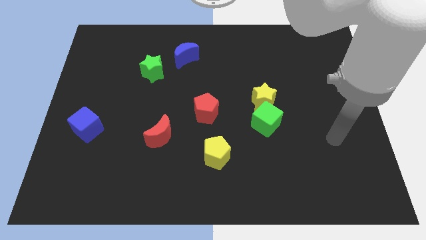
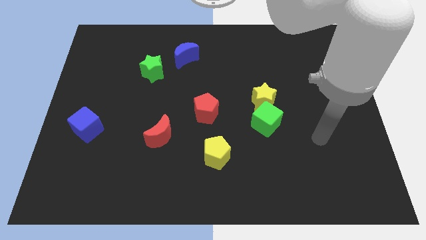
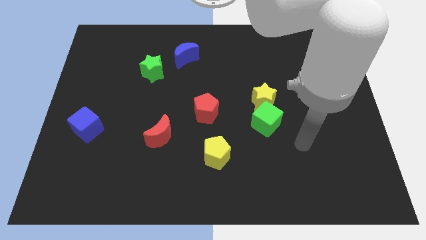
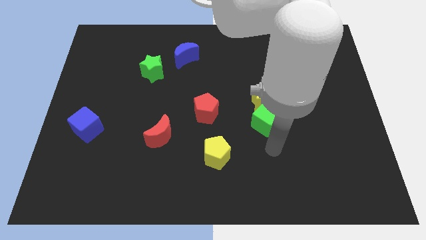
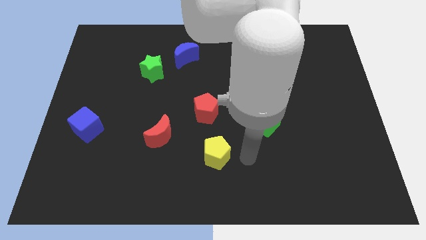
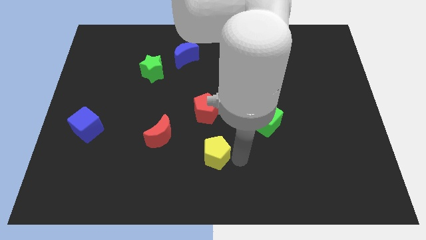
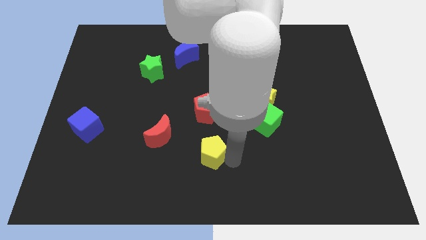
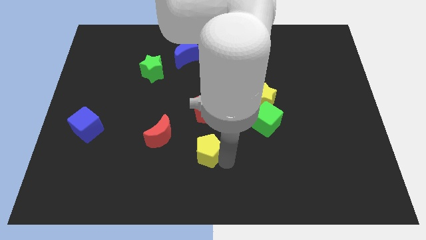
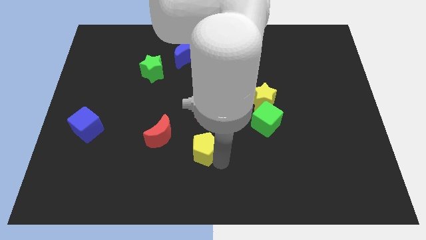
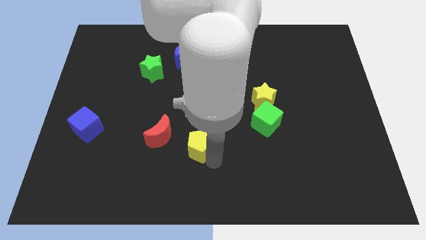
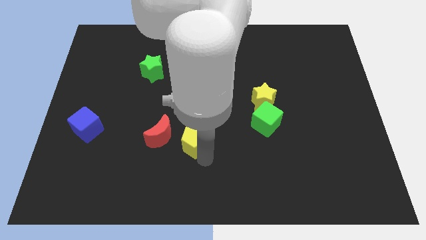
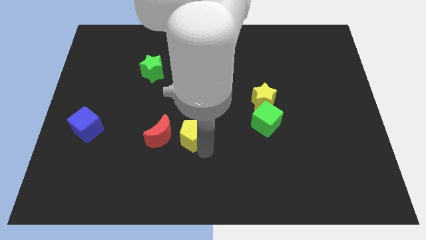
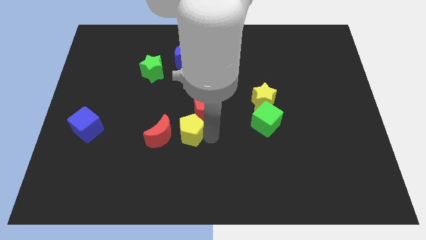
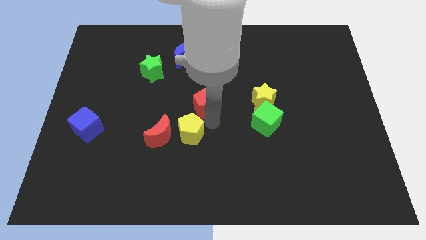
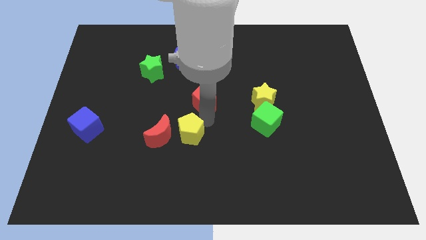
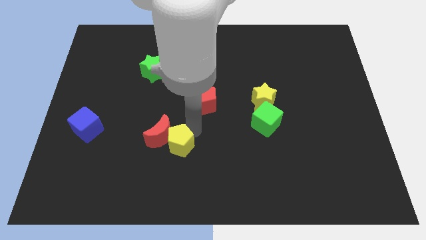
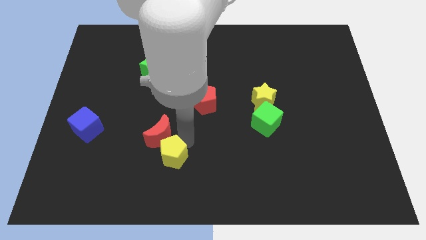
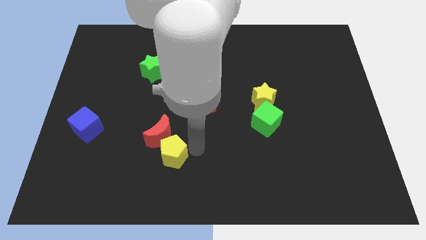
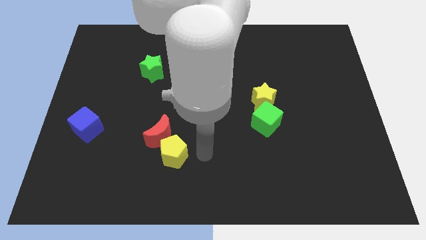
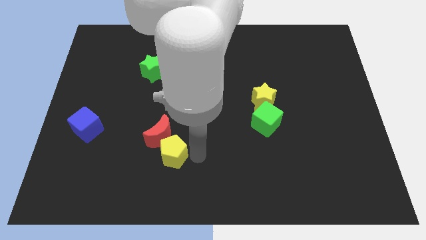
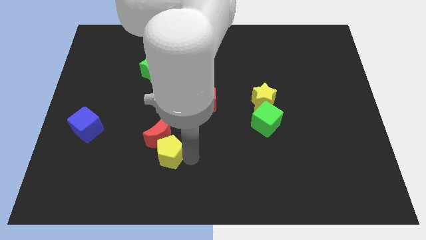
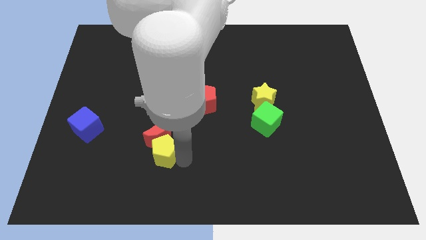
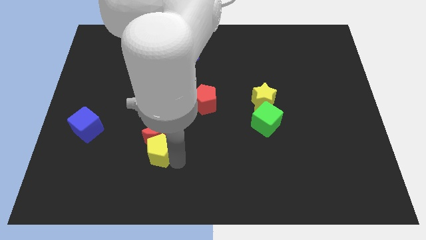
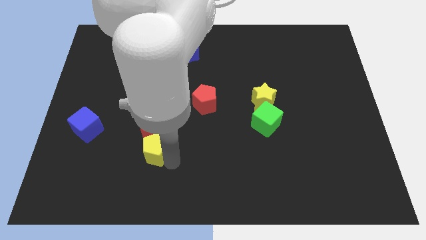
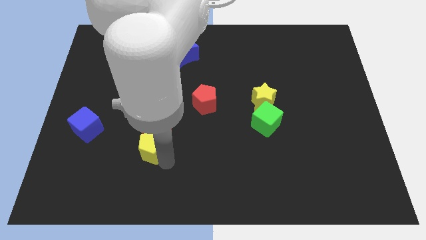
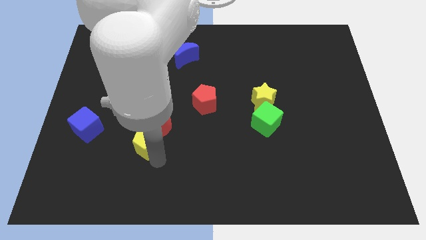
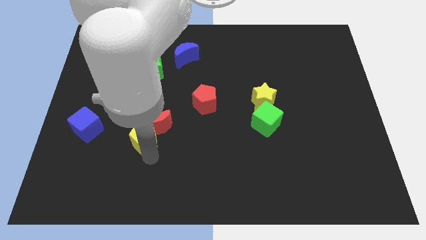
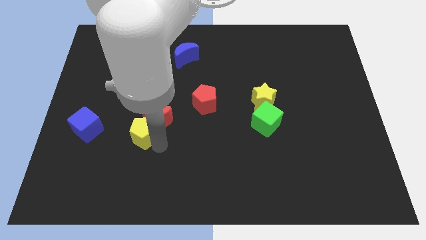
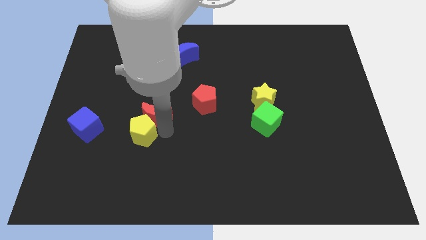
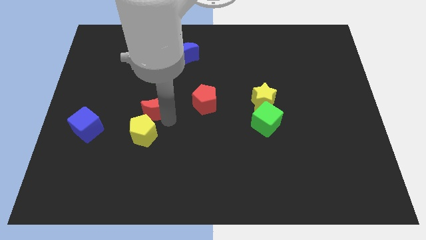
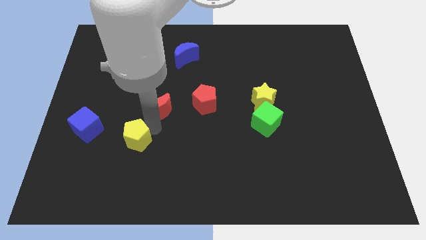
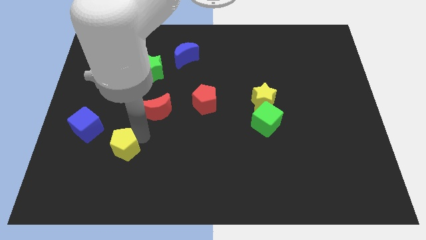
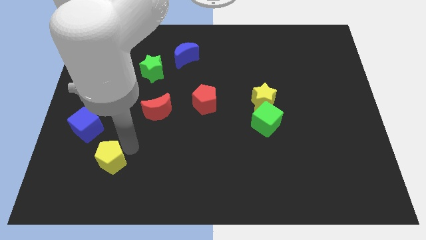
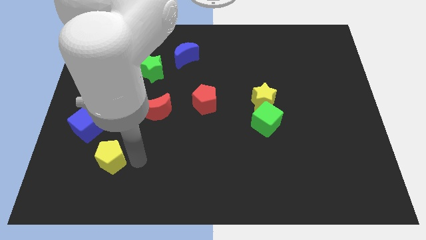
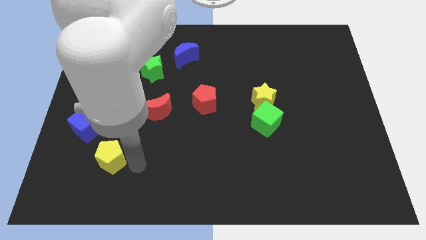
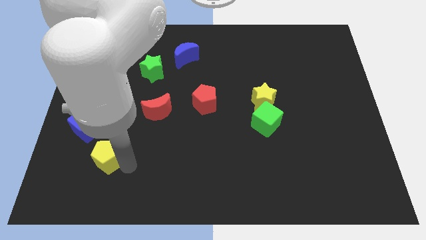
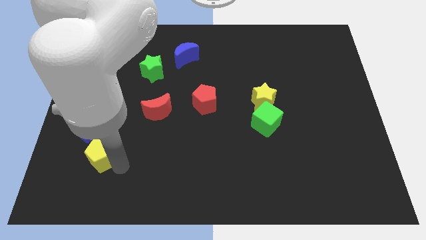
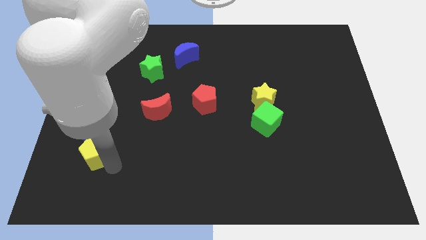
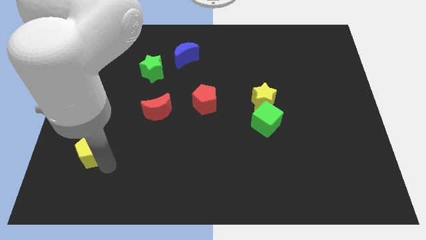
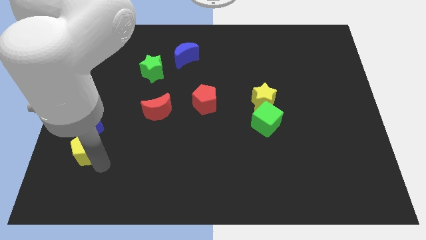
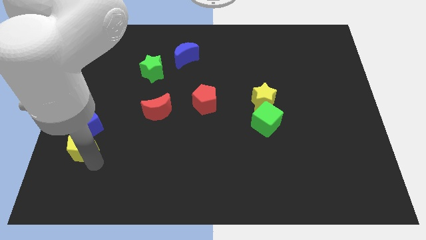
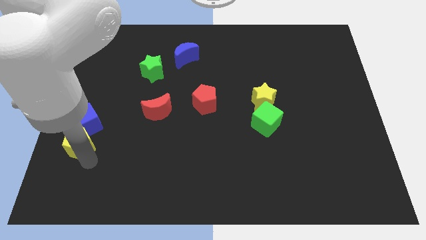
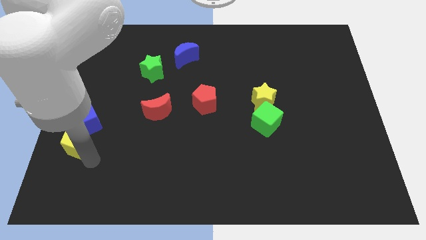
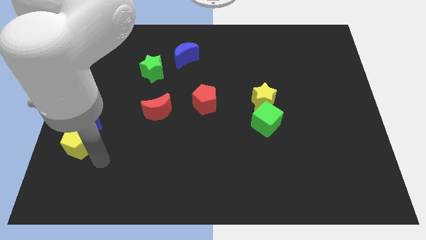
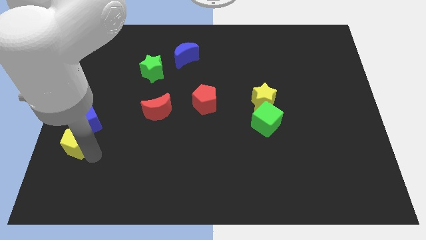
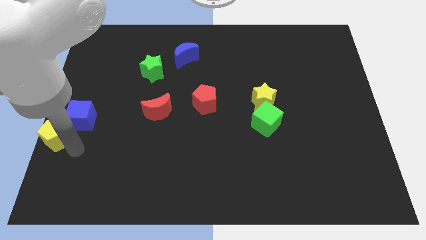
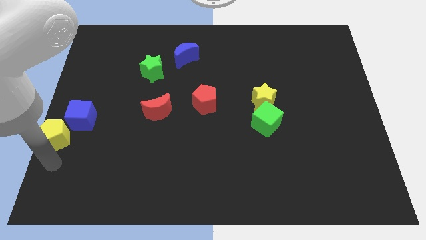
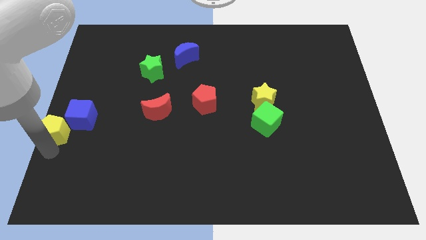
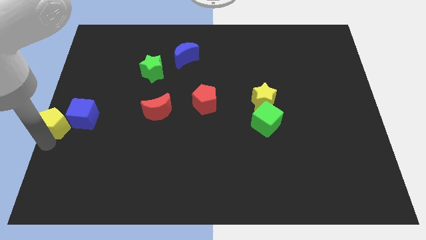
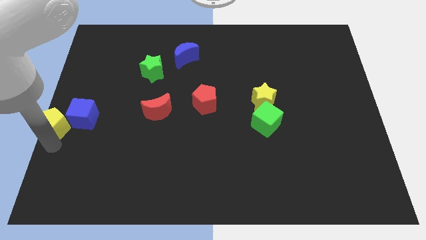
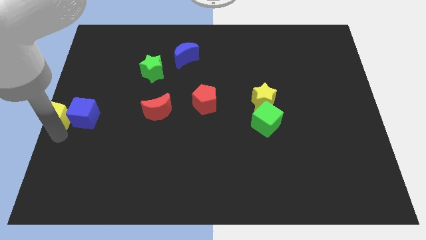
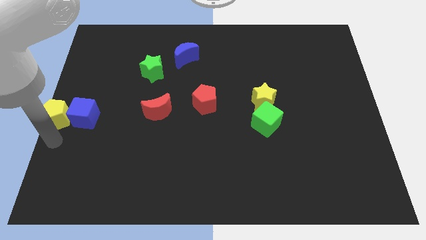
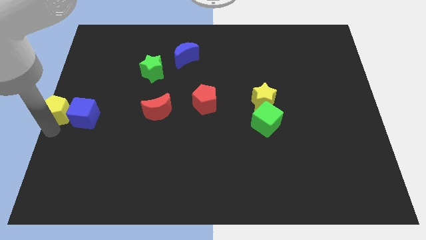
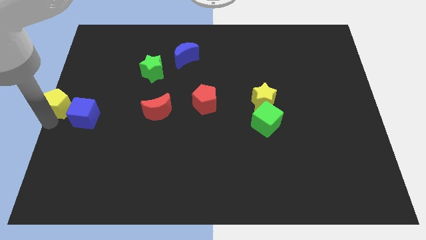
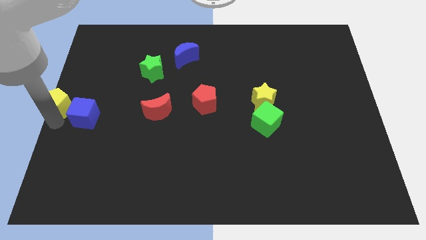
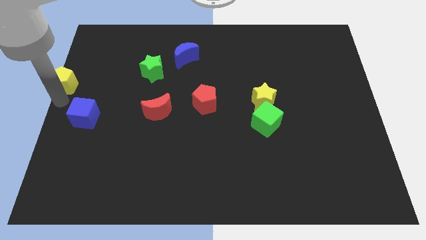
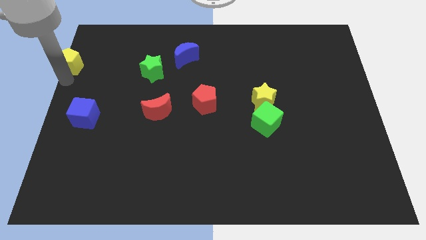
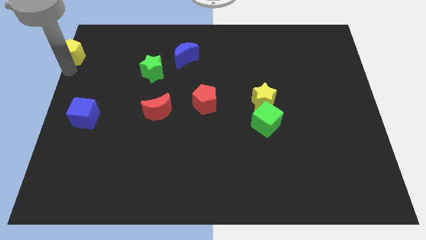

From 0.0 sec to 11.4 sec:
move the yellow pentagon to the top left

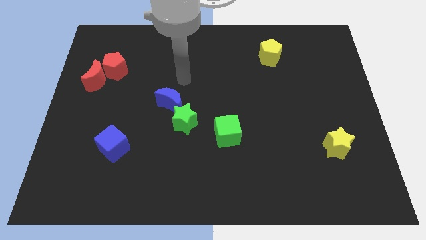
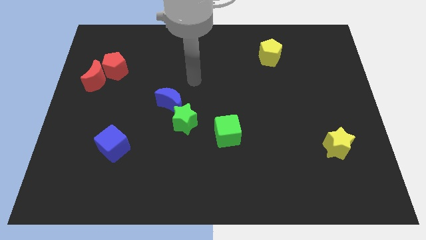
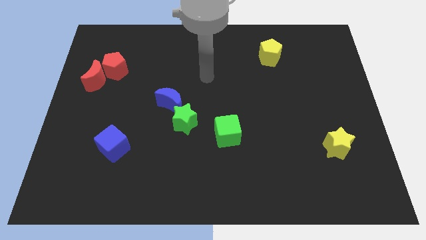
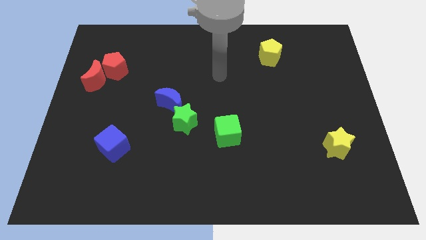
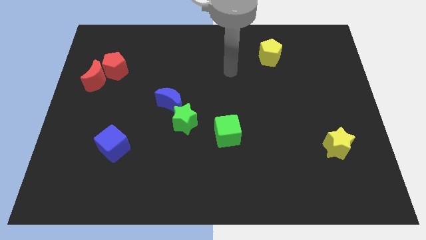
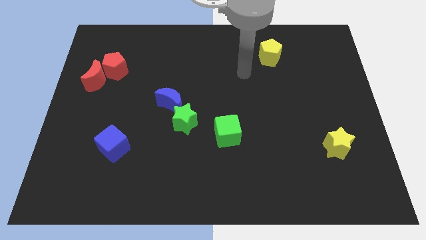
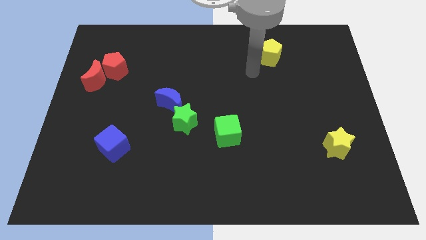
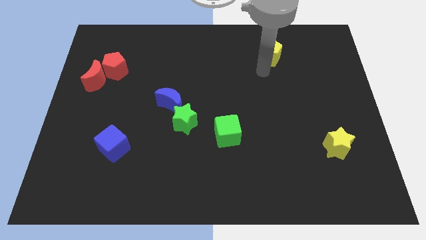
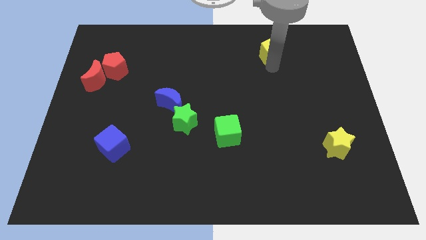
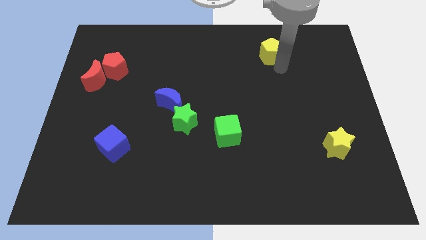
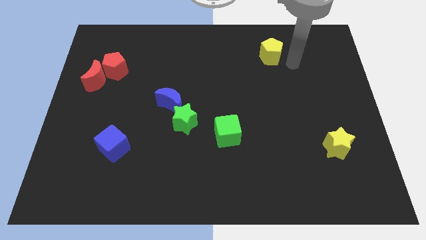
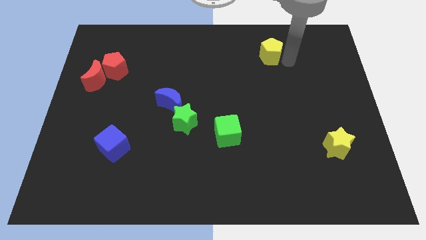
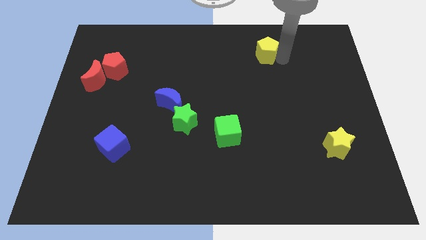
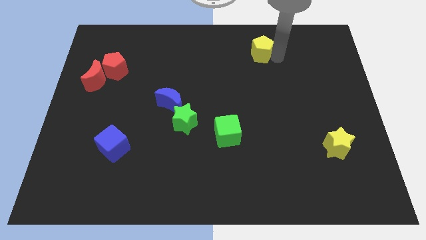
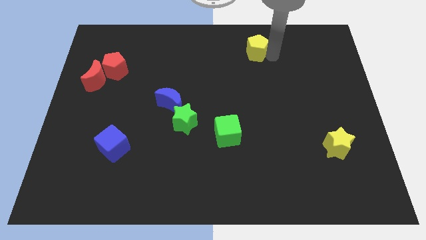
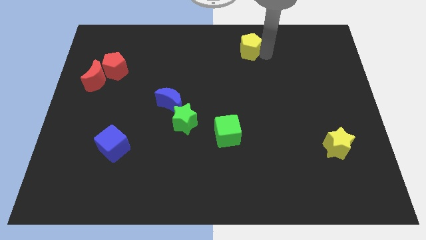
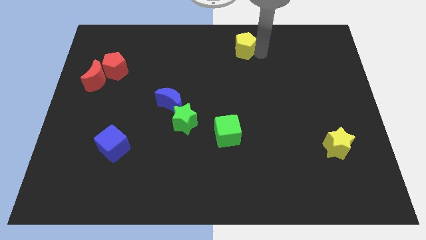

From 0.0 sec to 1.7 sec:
move the yellow pentagon to the towards your base

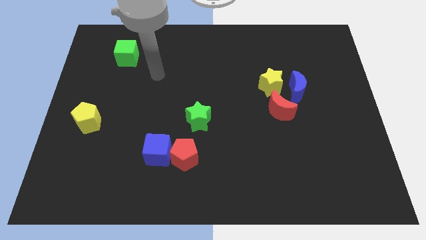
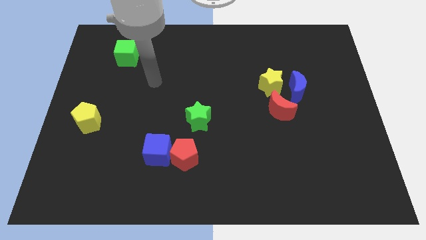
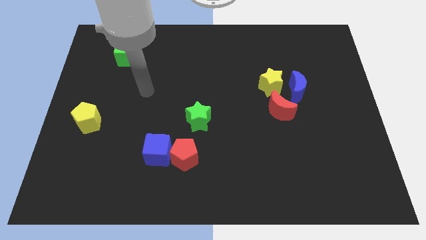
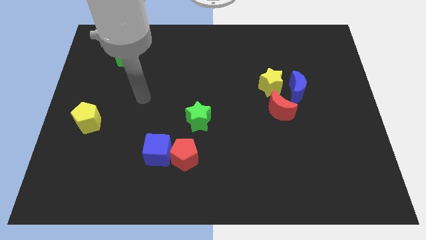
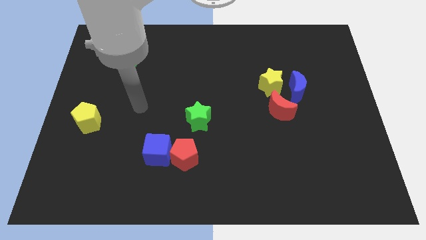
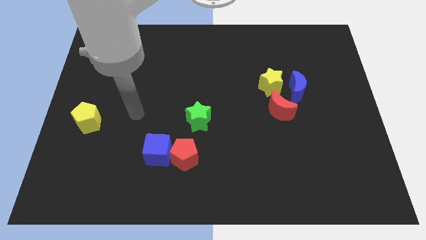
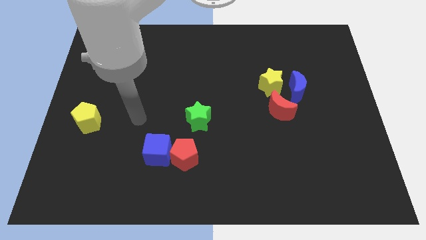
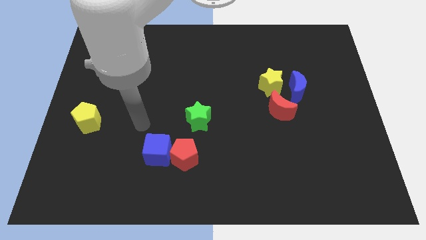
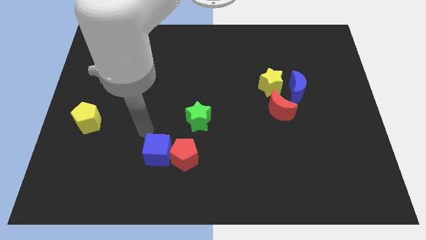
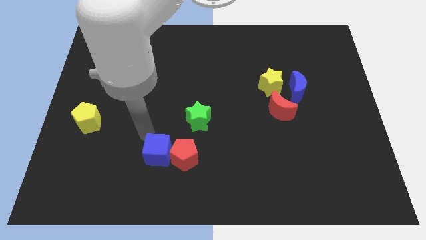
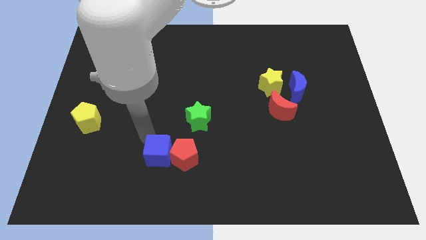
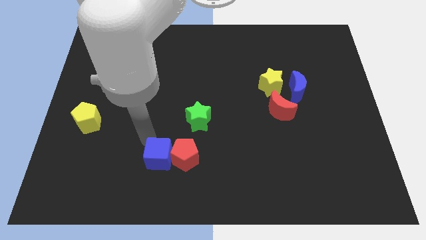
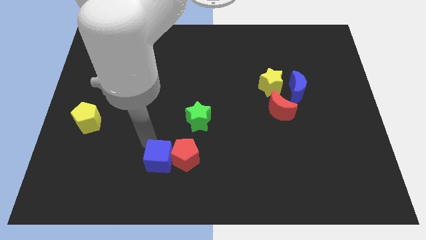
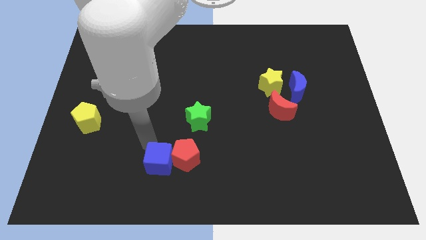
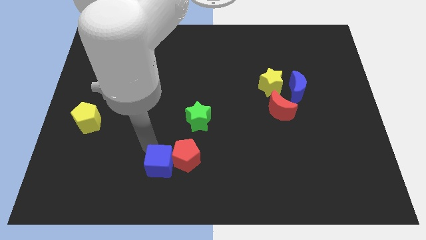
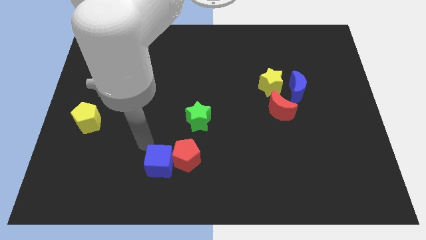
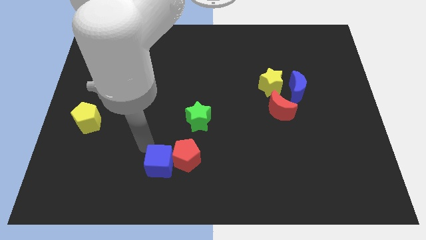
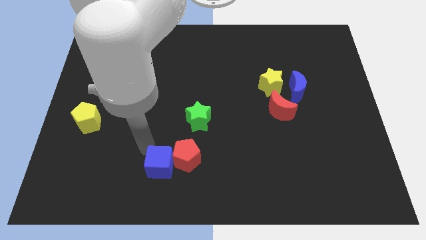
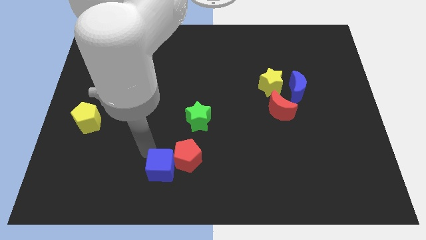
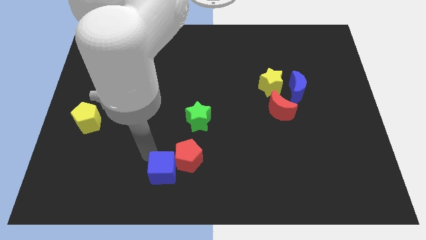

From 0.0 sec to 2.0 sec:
put the blue cube to the bottom side
